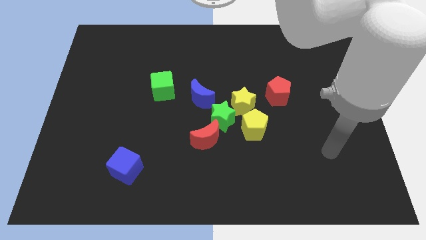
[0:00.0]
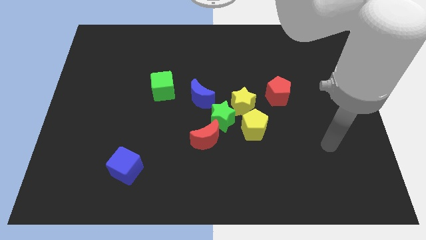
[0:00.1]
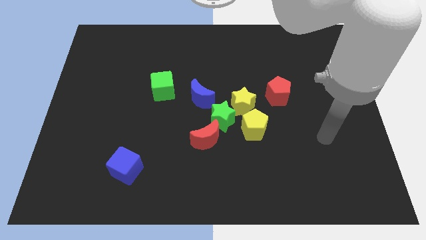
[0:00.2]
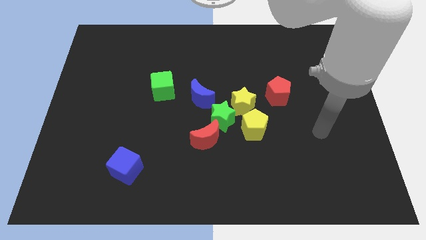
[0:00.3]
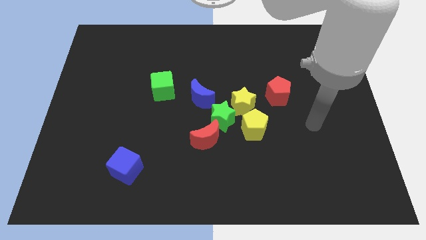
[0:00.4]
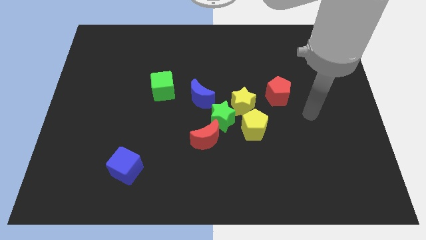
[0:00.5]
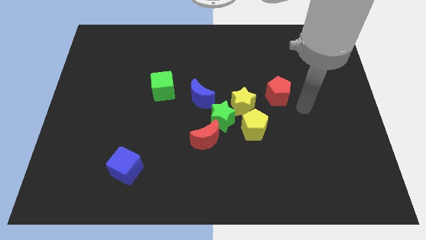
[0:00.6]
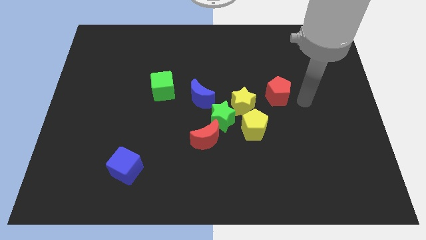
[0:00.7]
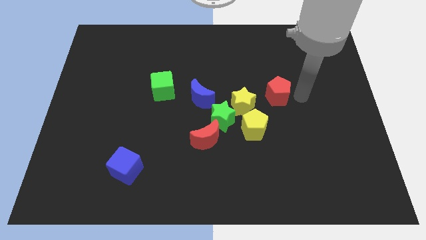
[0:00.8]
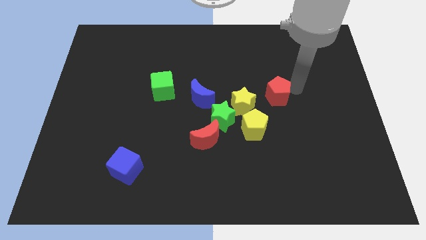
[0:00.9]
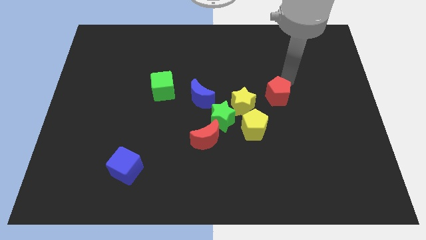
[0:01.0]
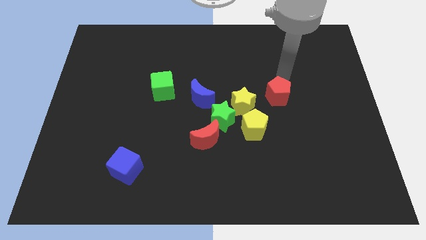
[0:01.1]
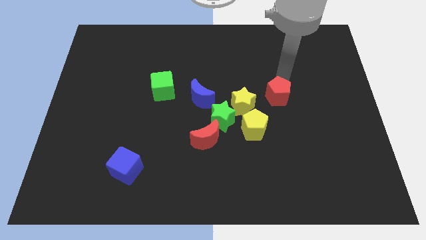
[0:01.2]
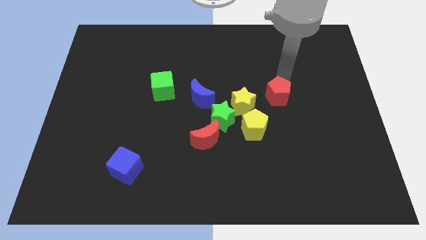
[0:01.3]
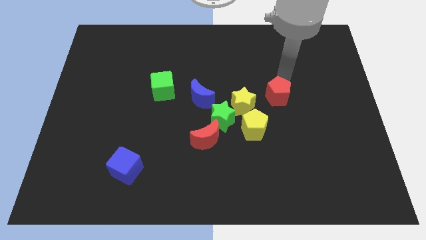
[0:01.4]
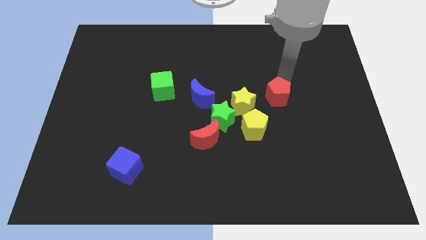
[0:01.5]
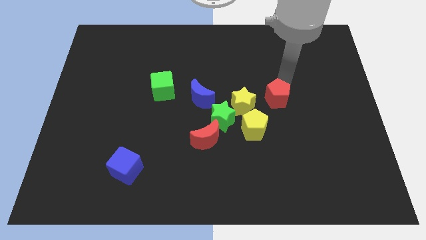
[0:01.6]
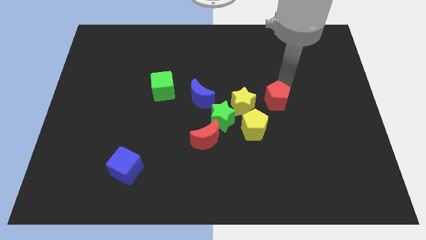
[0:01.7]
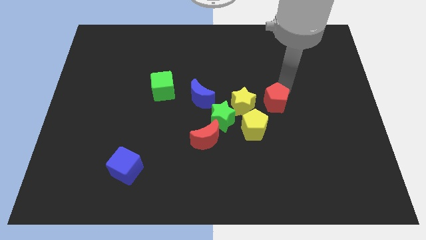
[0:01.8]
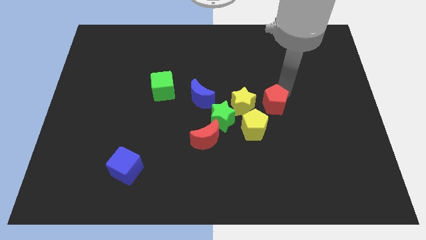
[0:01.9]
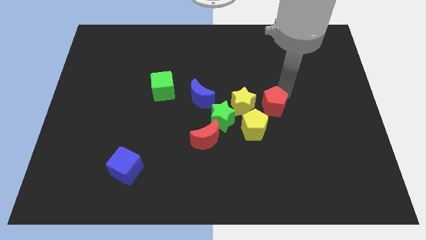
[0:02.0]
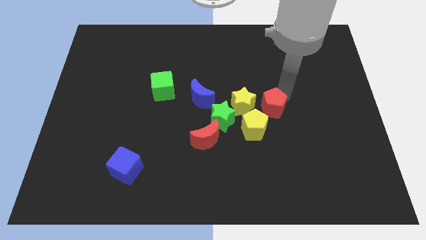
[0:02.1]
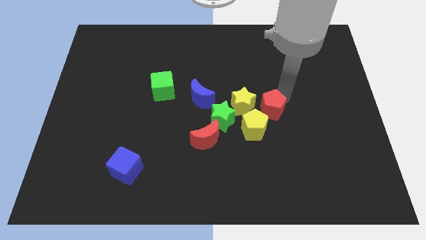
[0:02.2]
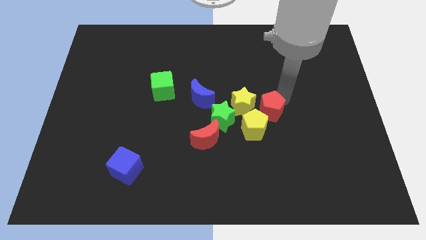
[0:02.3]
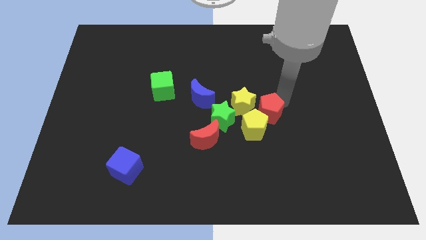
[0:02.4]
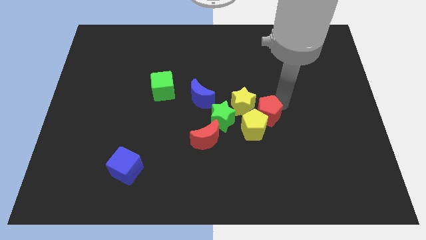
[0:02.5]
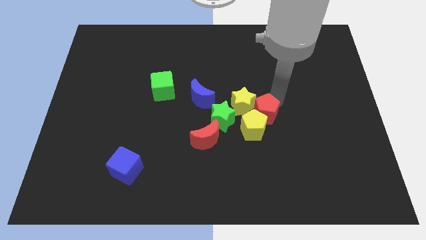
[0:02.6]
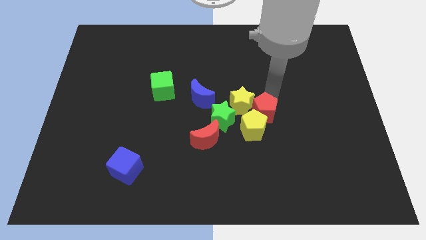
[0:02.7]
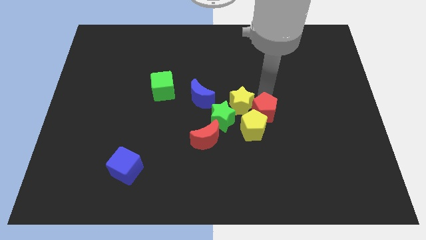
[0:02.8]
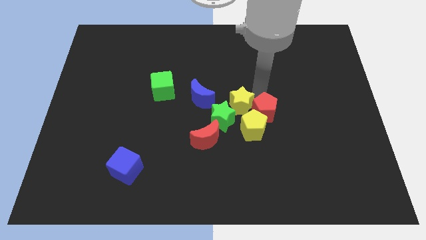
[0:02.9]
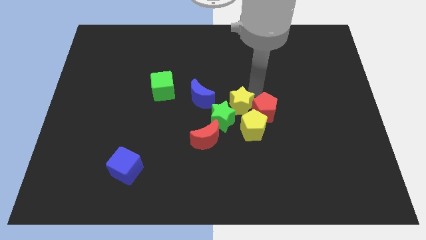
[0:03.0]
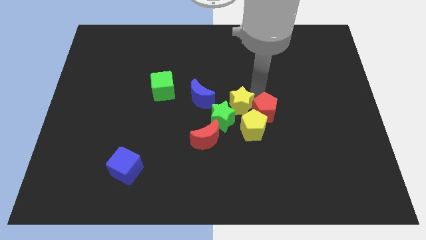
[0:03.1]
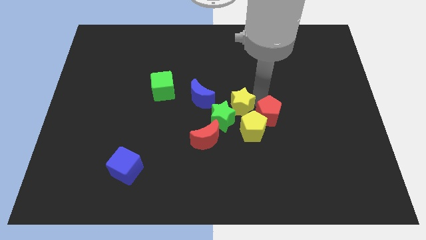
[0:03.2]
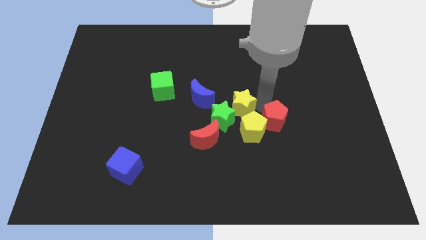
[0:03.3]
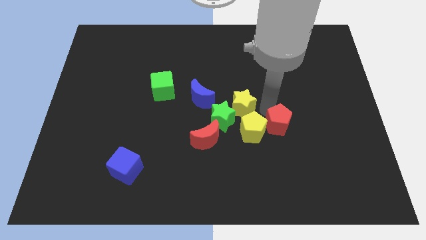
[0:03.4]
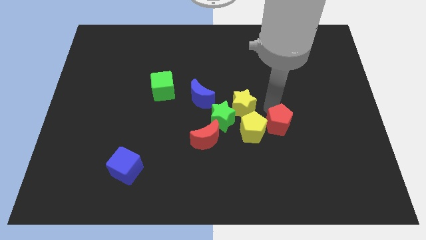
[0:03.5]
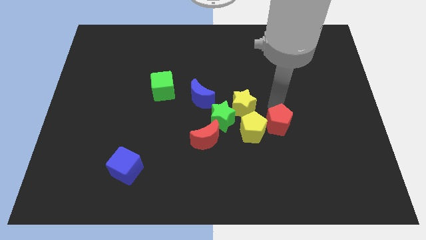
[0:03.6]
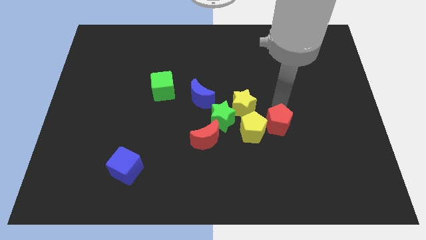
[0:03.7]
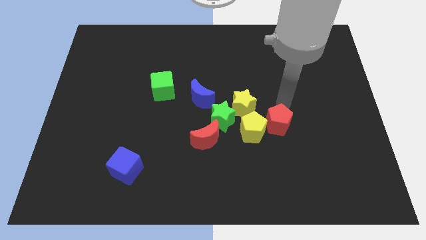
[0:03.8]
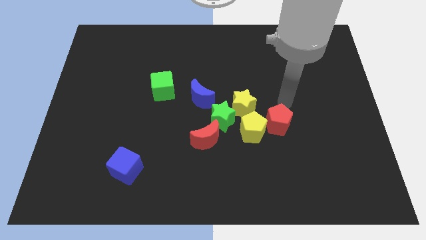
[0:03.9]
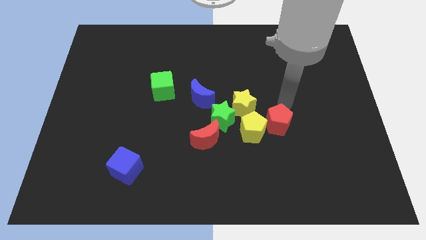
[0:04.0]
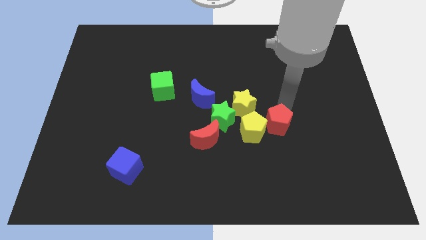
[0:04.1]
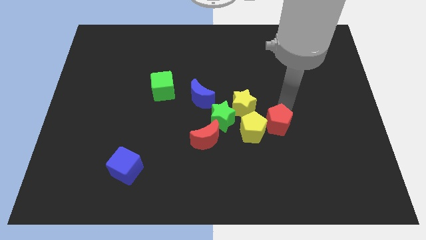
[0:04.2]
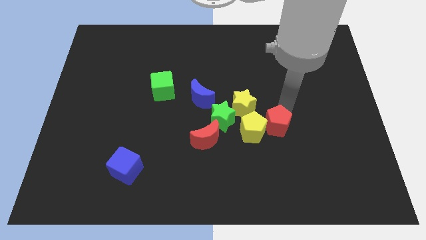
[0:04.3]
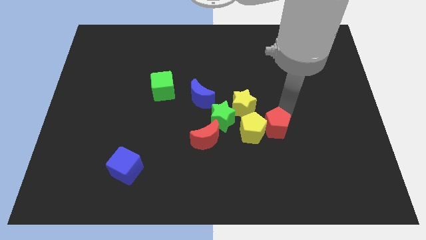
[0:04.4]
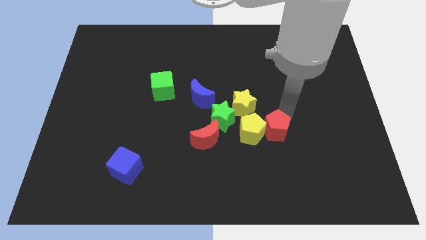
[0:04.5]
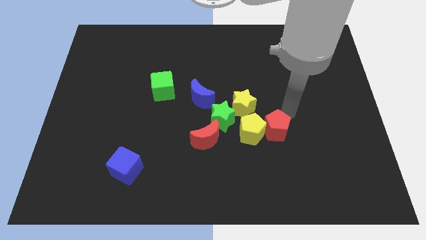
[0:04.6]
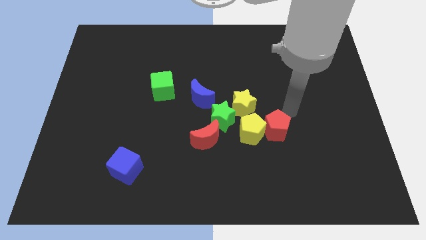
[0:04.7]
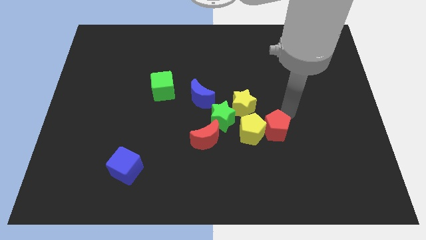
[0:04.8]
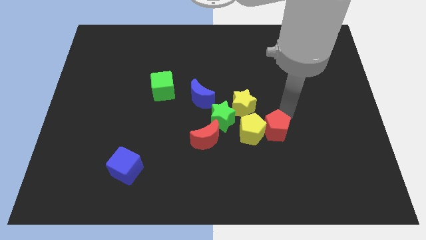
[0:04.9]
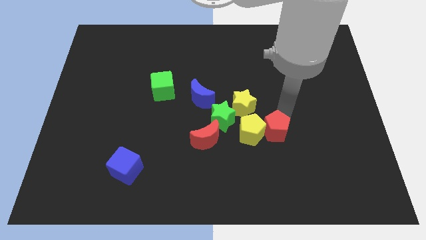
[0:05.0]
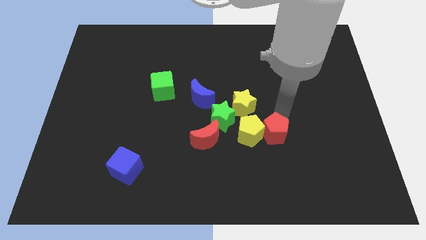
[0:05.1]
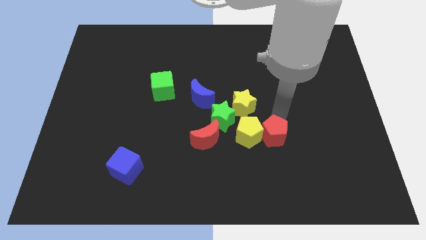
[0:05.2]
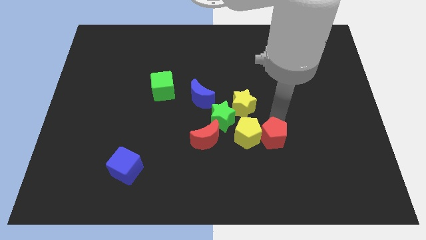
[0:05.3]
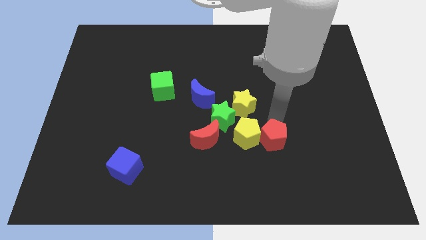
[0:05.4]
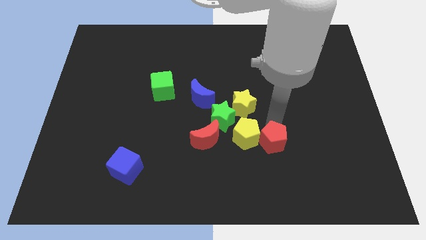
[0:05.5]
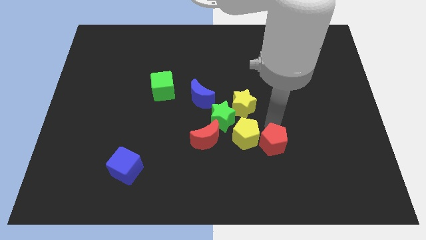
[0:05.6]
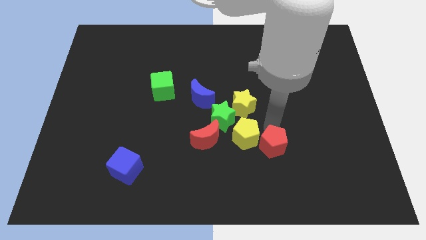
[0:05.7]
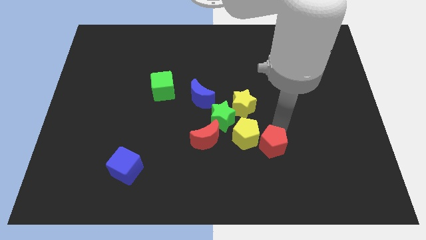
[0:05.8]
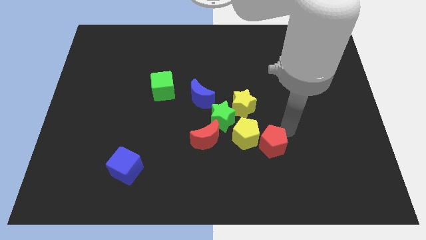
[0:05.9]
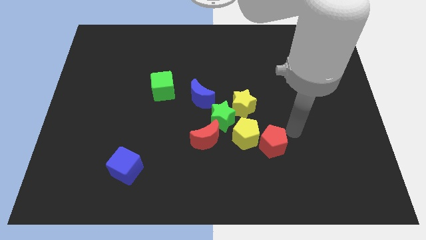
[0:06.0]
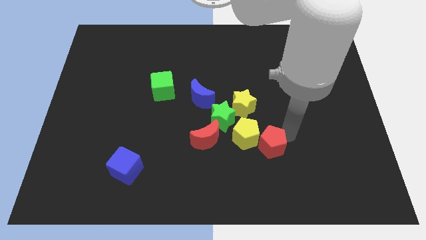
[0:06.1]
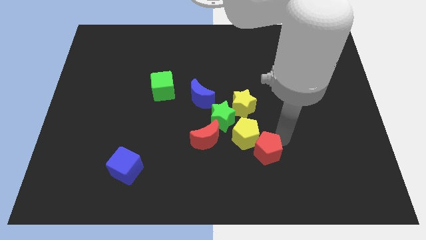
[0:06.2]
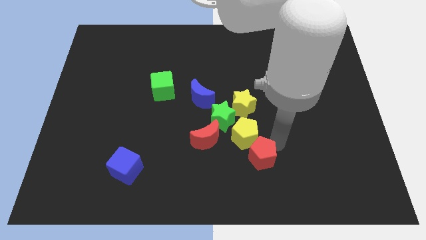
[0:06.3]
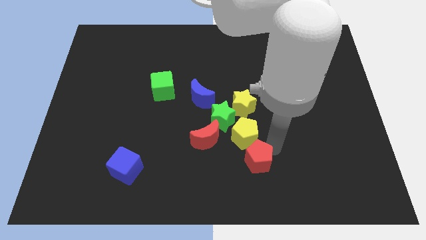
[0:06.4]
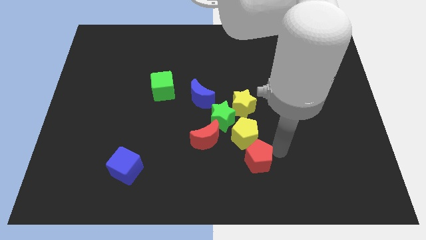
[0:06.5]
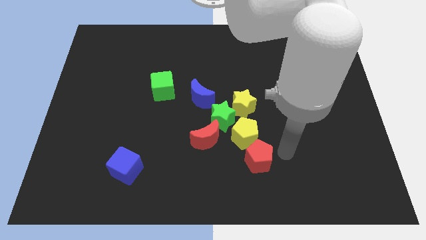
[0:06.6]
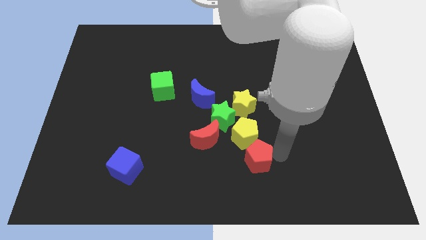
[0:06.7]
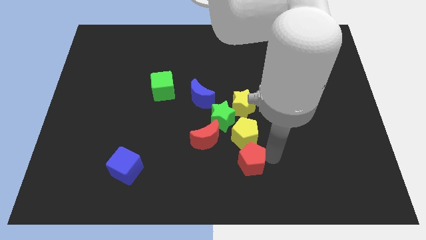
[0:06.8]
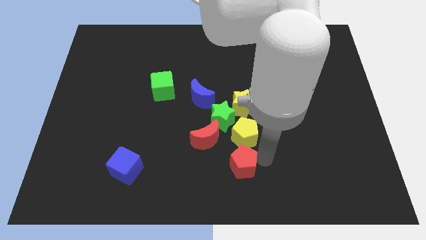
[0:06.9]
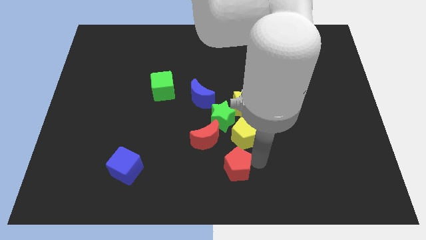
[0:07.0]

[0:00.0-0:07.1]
move the red pentagon diagonally down and to the left

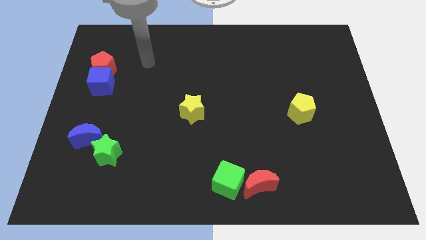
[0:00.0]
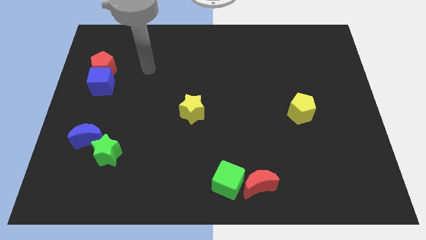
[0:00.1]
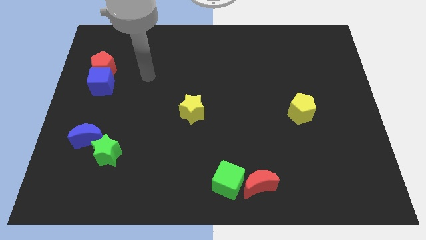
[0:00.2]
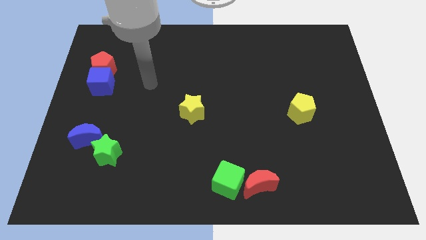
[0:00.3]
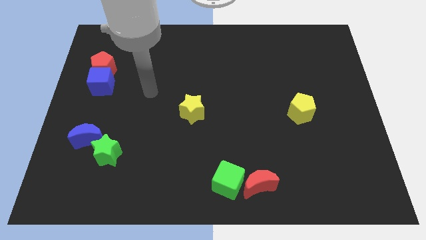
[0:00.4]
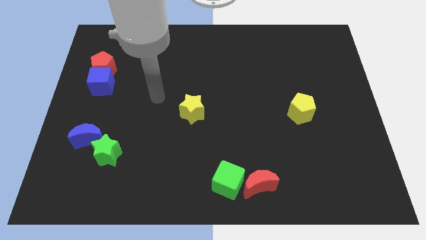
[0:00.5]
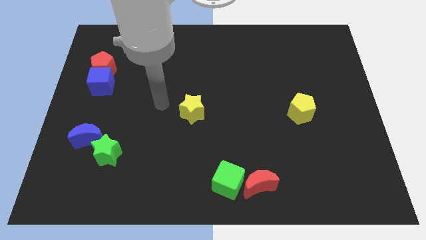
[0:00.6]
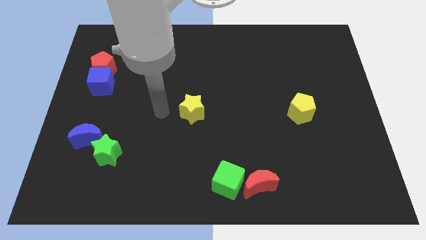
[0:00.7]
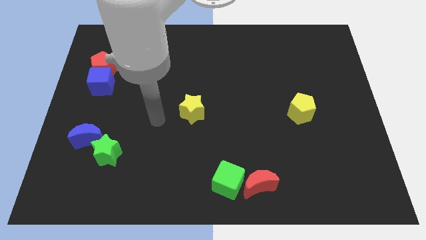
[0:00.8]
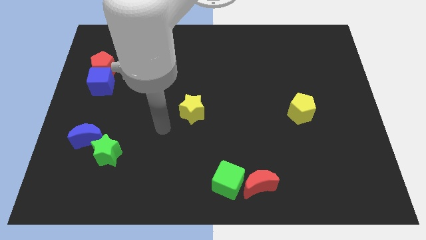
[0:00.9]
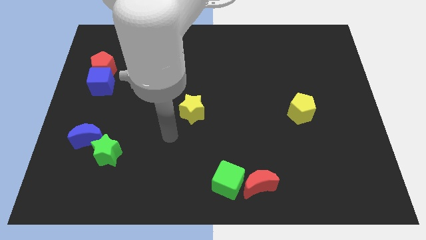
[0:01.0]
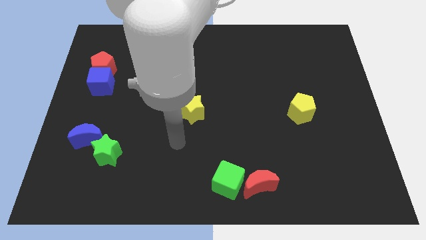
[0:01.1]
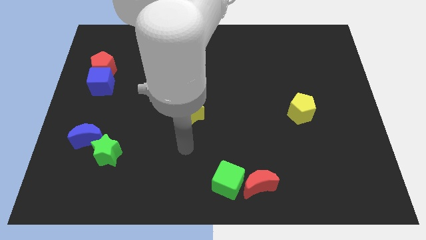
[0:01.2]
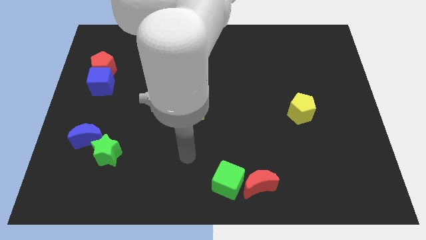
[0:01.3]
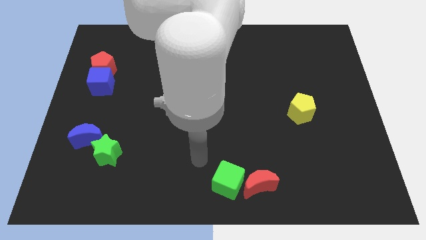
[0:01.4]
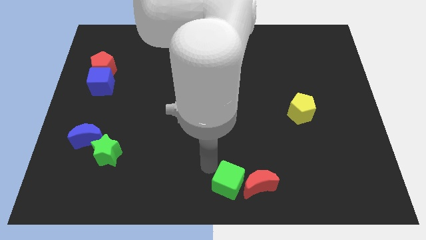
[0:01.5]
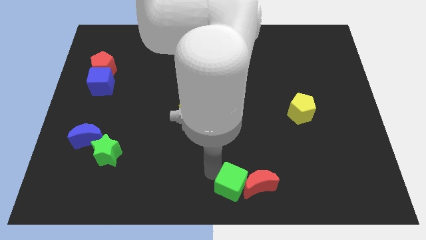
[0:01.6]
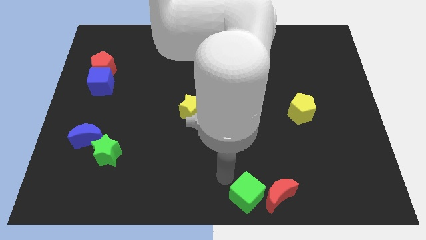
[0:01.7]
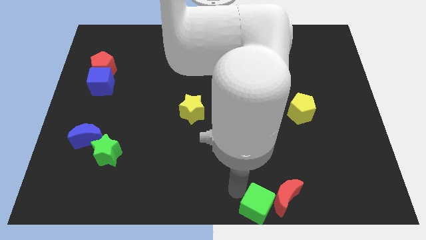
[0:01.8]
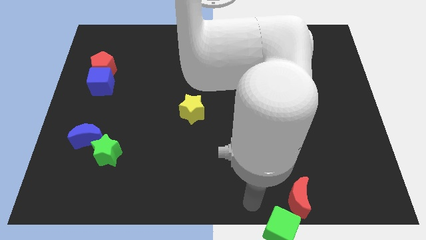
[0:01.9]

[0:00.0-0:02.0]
push the red moon to the right a little bit
